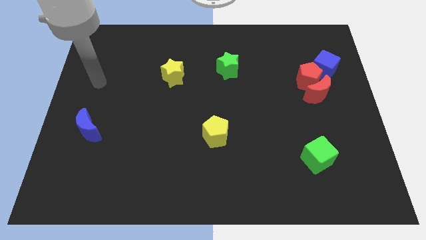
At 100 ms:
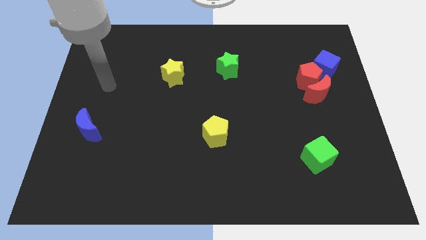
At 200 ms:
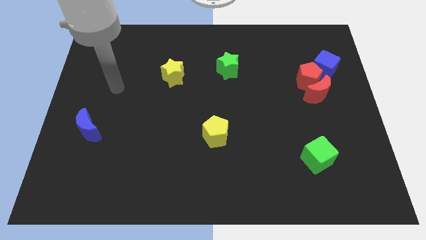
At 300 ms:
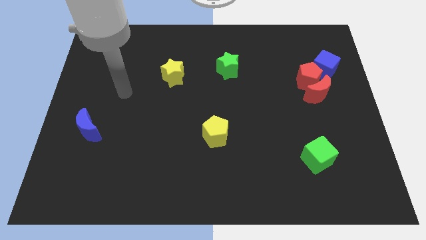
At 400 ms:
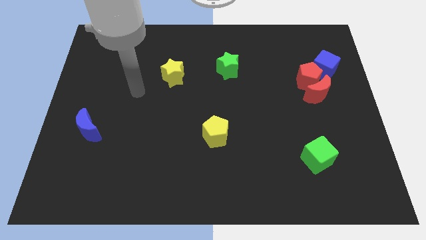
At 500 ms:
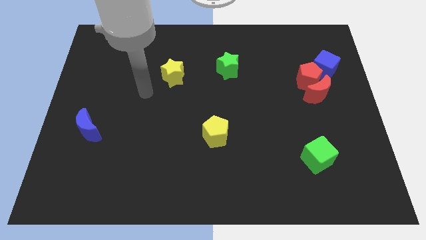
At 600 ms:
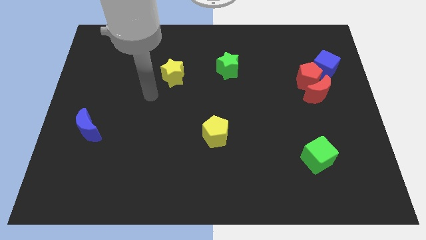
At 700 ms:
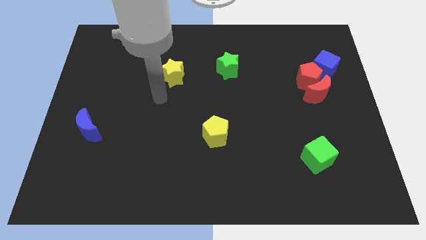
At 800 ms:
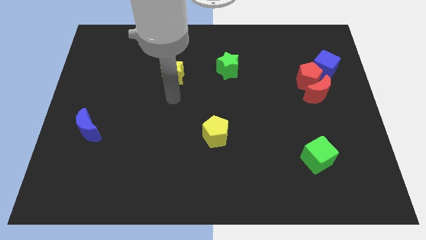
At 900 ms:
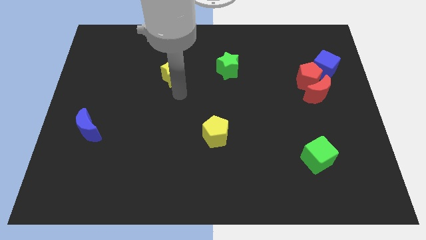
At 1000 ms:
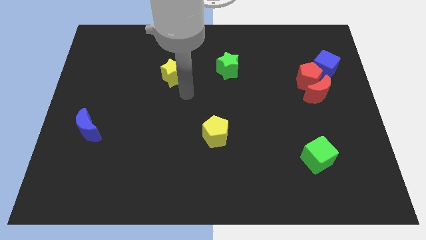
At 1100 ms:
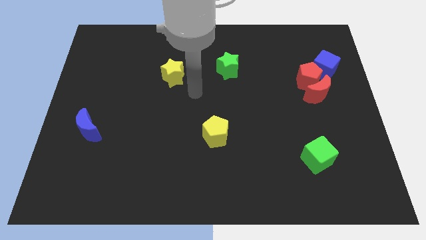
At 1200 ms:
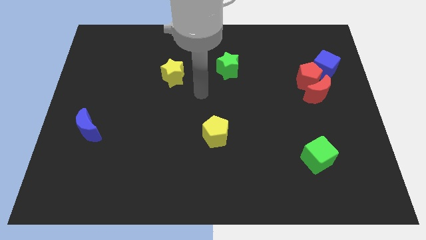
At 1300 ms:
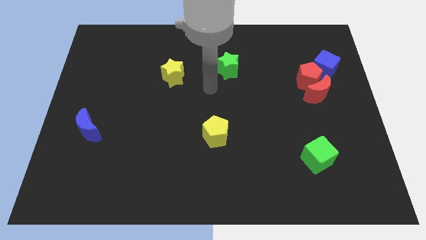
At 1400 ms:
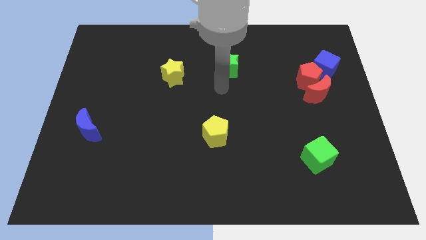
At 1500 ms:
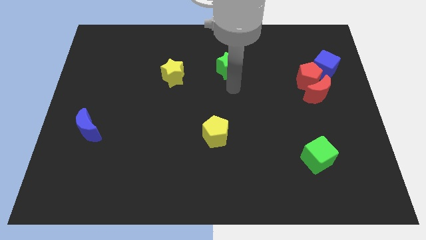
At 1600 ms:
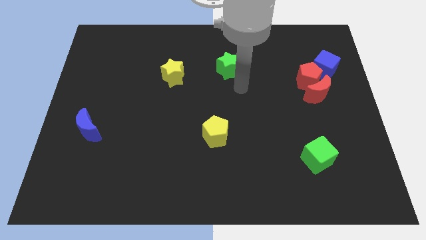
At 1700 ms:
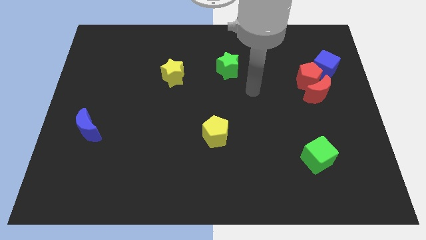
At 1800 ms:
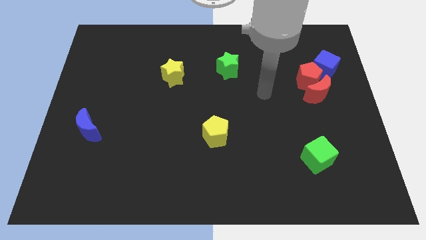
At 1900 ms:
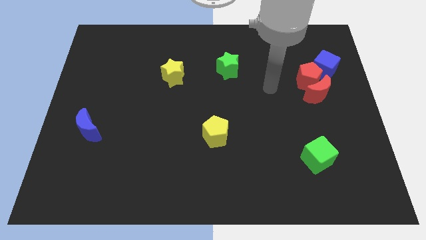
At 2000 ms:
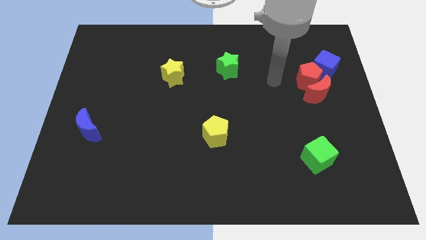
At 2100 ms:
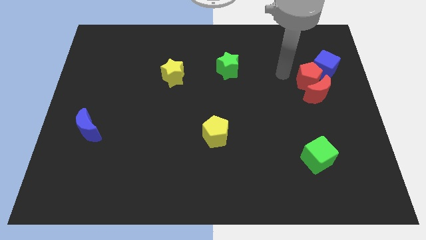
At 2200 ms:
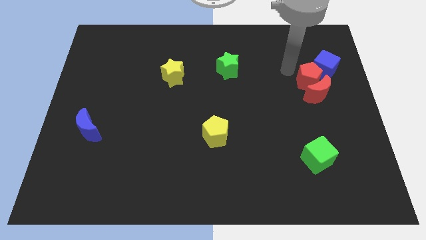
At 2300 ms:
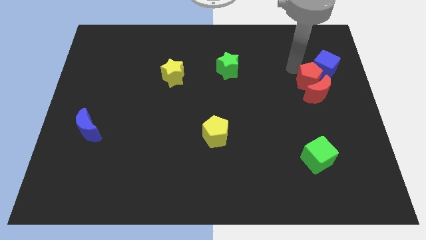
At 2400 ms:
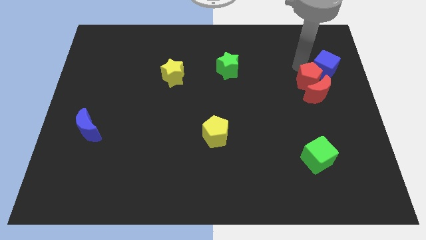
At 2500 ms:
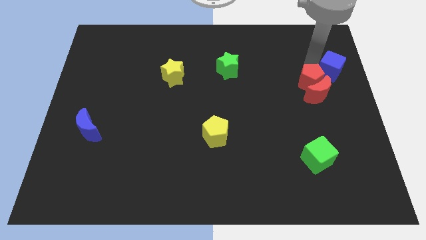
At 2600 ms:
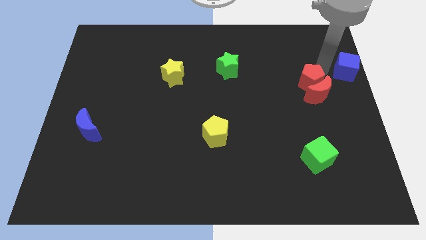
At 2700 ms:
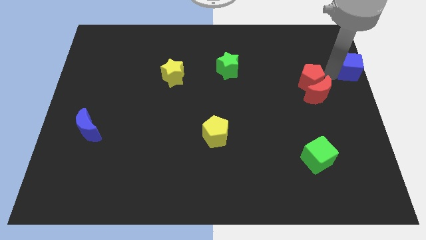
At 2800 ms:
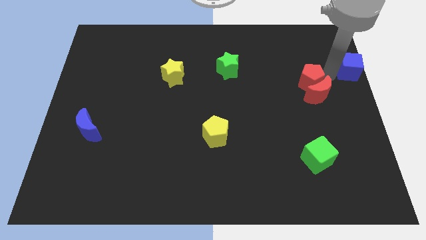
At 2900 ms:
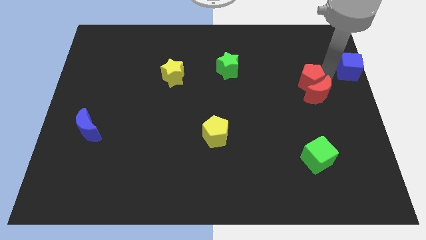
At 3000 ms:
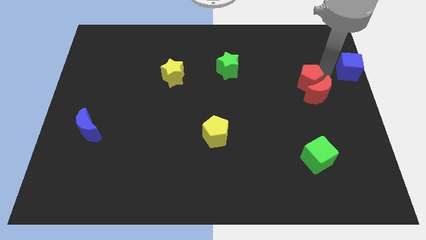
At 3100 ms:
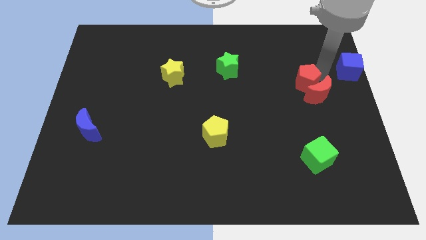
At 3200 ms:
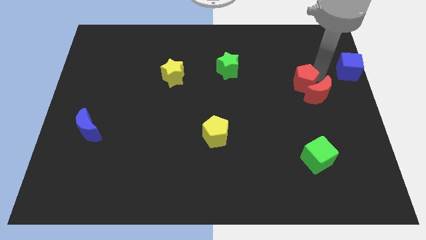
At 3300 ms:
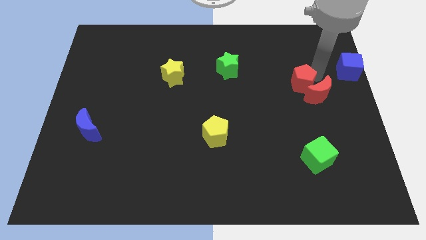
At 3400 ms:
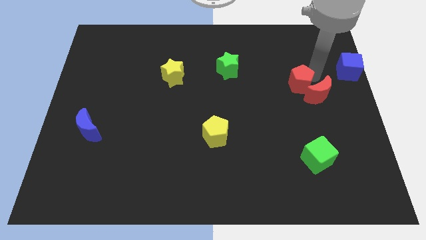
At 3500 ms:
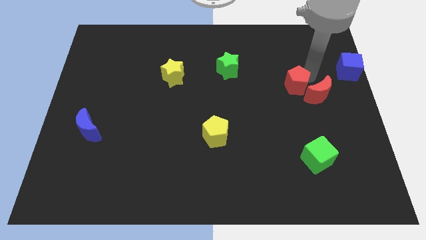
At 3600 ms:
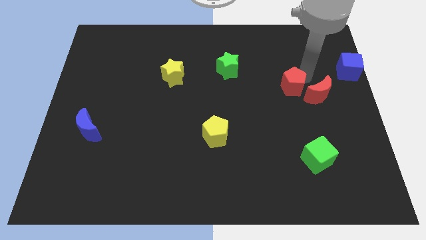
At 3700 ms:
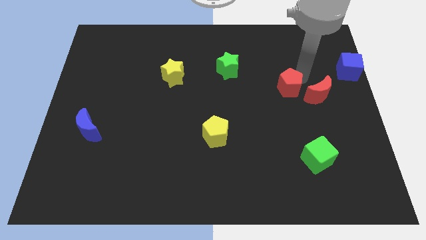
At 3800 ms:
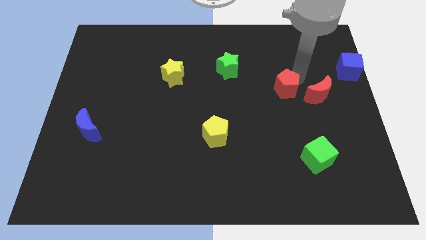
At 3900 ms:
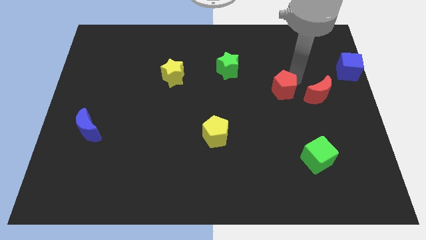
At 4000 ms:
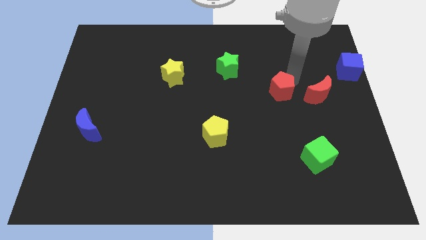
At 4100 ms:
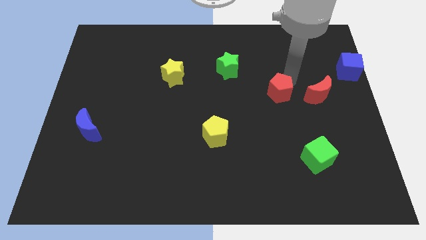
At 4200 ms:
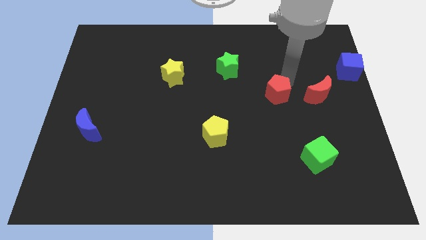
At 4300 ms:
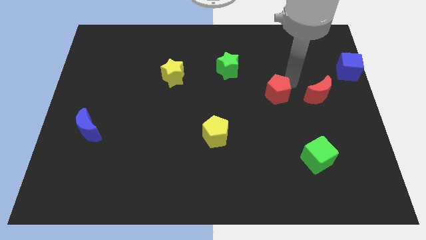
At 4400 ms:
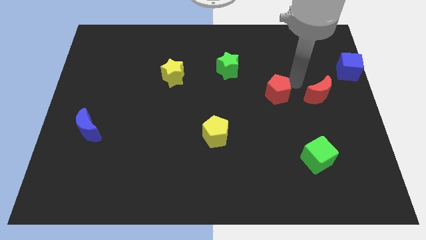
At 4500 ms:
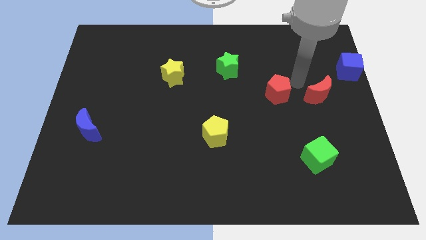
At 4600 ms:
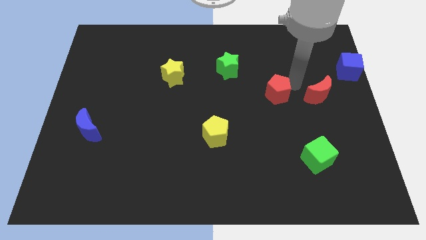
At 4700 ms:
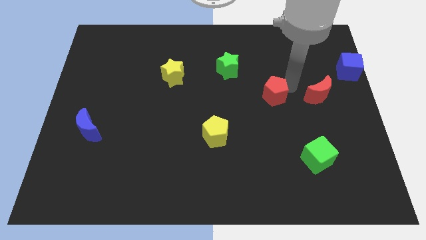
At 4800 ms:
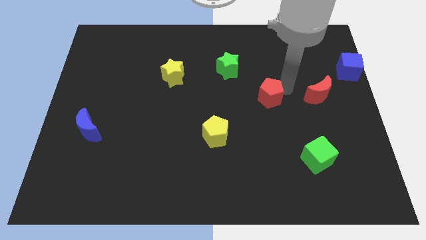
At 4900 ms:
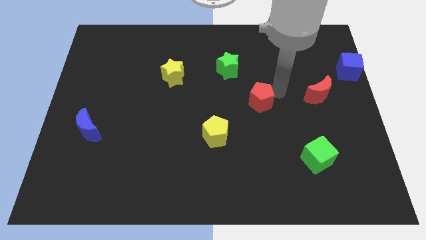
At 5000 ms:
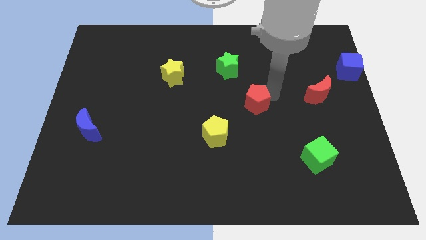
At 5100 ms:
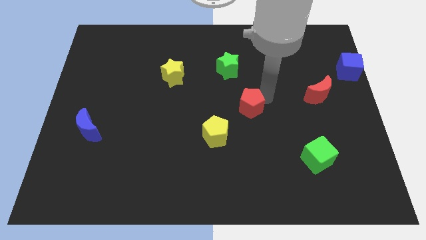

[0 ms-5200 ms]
slide the red pentagon diagonally up and to the right of the yellow pentagon

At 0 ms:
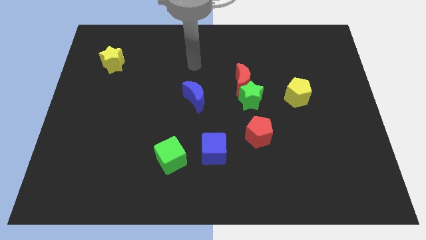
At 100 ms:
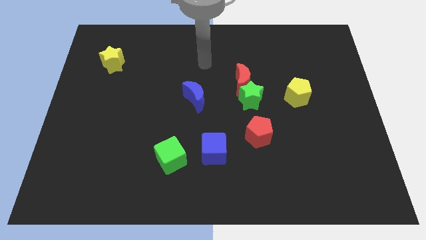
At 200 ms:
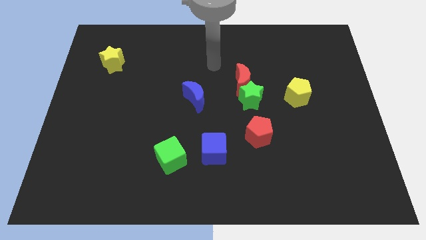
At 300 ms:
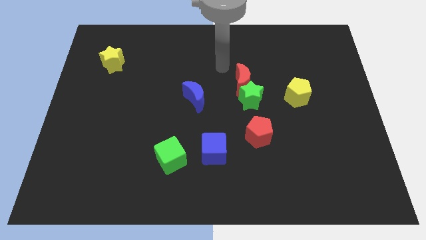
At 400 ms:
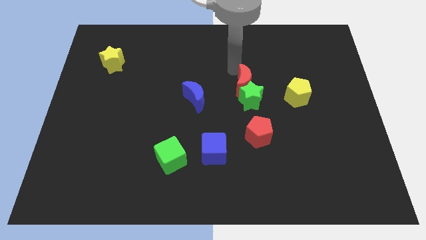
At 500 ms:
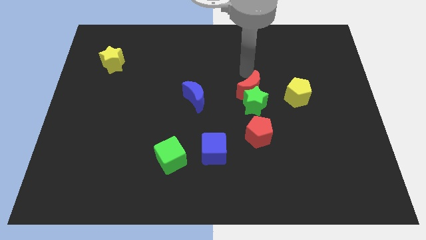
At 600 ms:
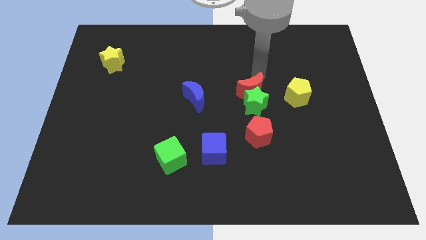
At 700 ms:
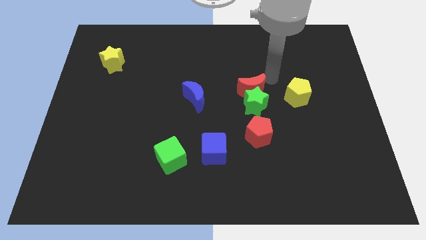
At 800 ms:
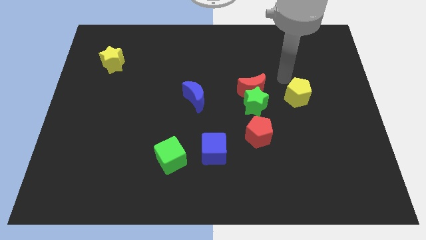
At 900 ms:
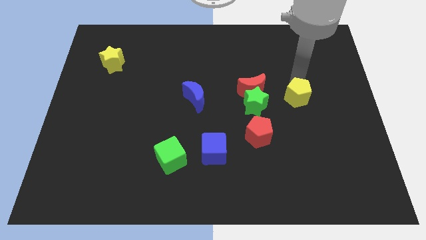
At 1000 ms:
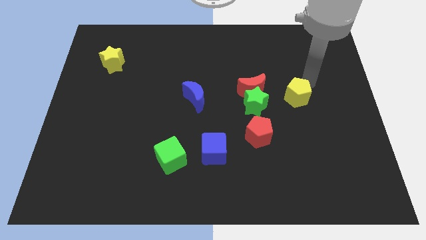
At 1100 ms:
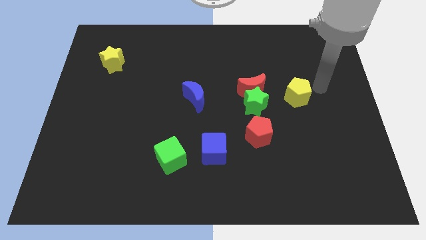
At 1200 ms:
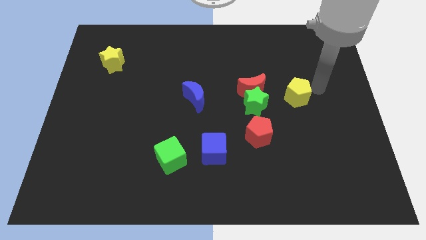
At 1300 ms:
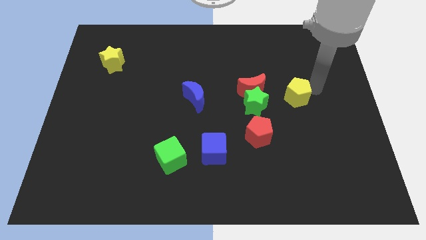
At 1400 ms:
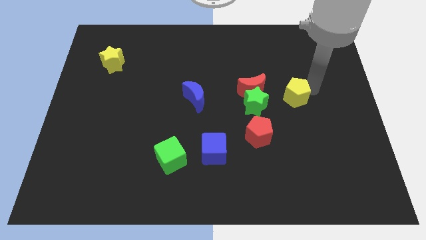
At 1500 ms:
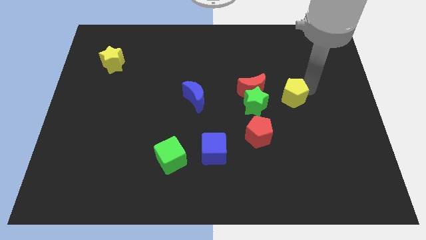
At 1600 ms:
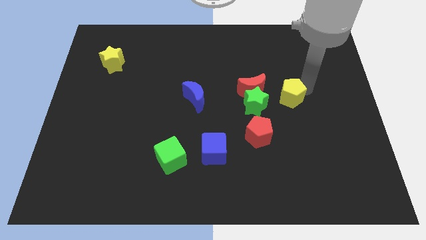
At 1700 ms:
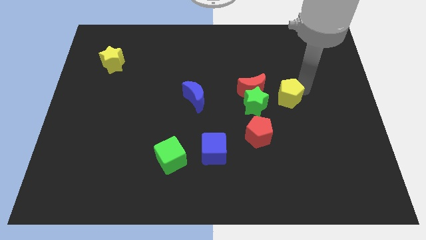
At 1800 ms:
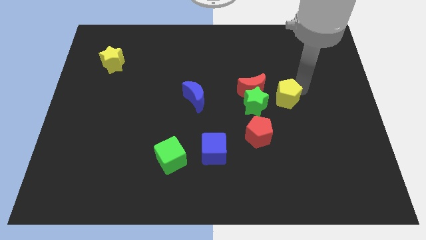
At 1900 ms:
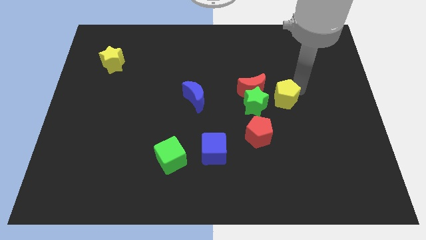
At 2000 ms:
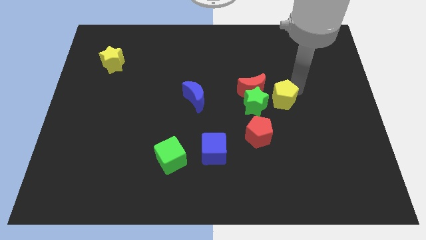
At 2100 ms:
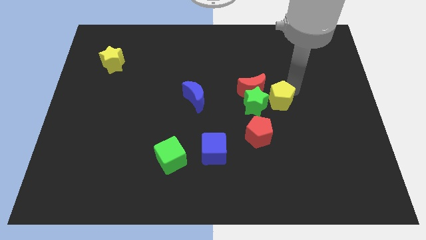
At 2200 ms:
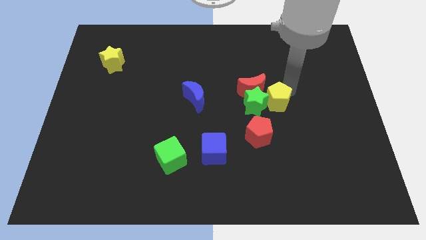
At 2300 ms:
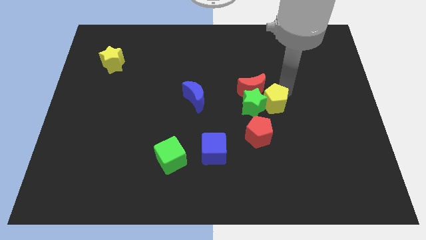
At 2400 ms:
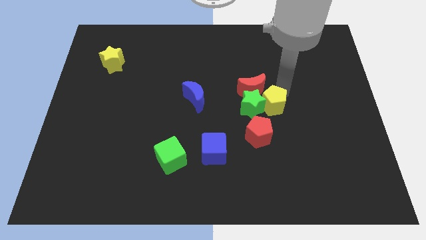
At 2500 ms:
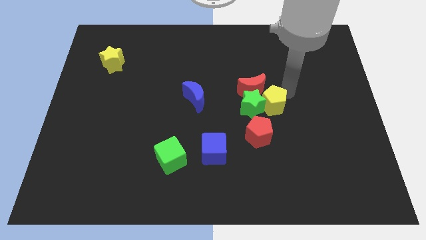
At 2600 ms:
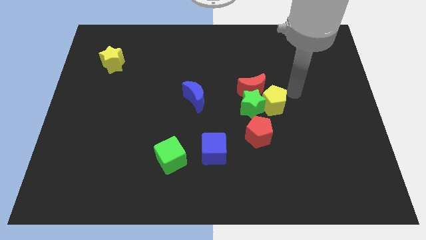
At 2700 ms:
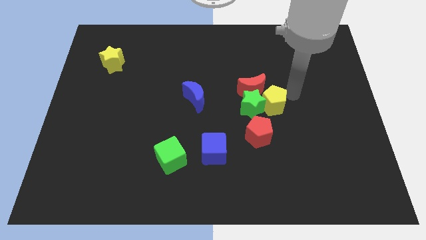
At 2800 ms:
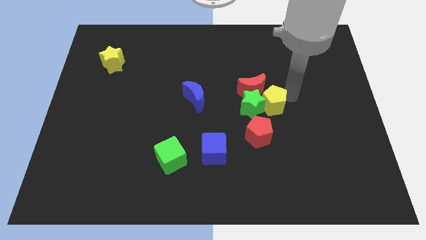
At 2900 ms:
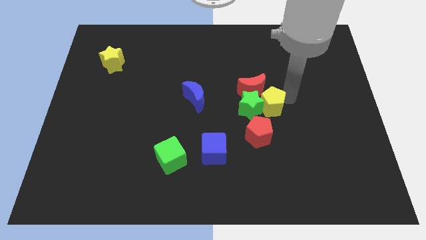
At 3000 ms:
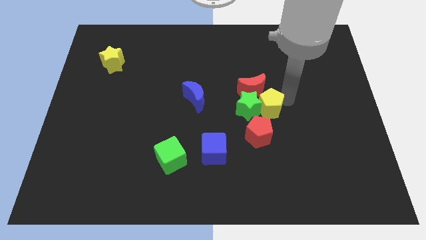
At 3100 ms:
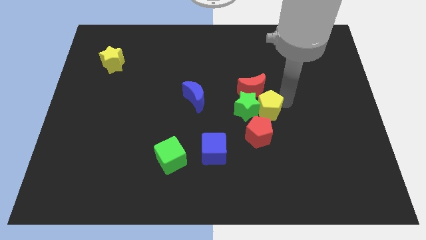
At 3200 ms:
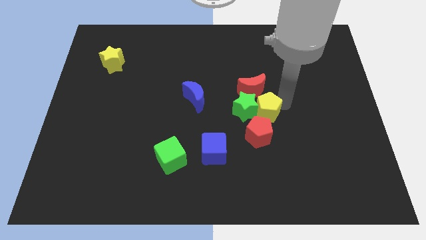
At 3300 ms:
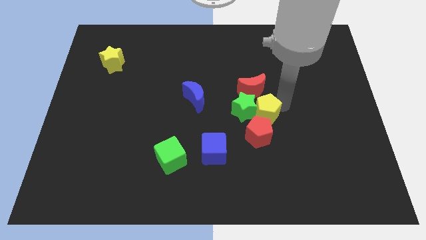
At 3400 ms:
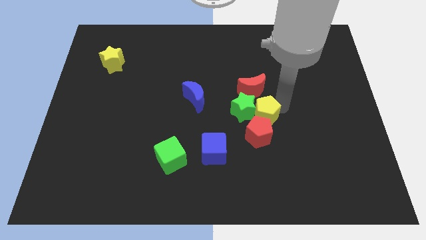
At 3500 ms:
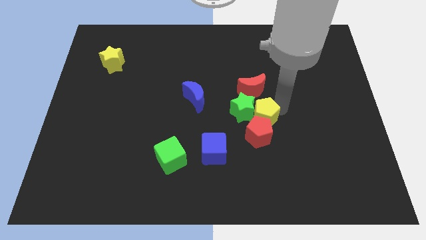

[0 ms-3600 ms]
put the yellow pentagon diagonally up and to the left of the red pentagon
